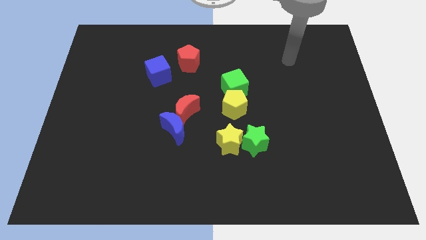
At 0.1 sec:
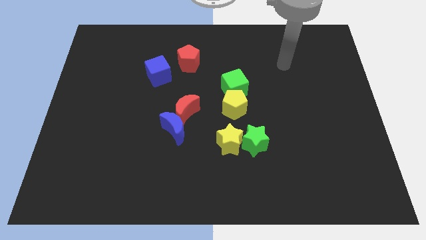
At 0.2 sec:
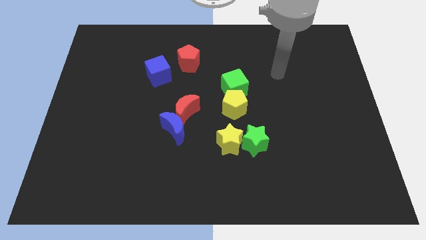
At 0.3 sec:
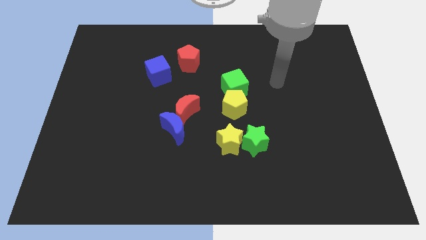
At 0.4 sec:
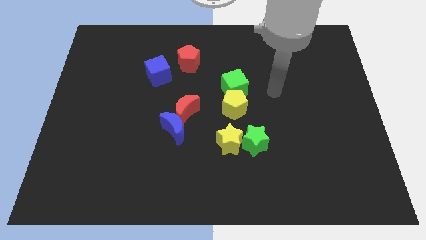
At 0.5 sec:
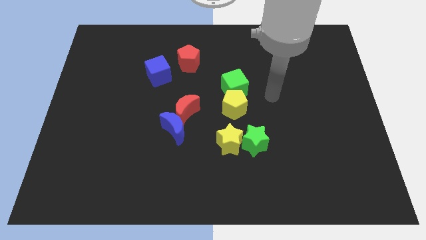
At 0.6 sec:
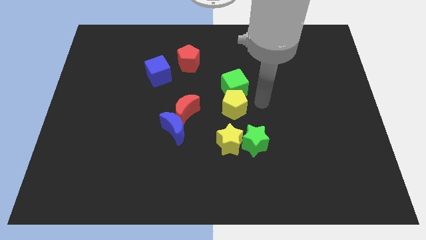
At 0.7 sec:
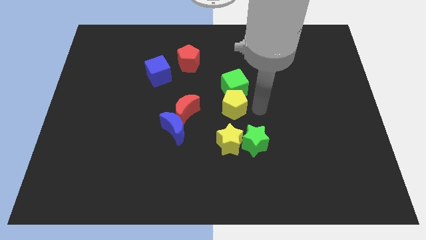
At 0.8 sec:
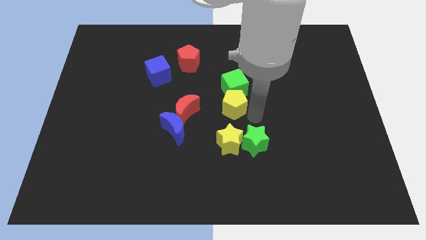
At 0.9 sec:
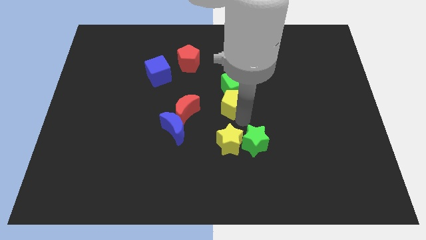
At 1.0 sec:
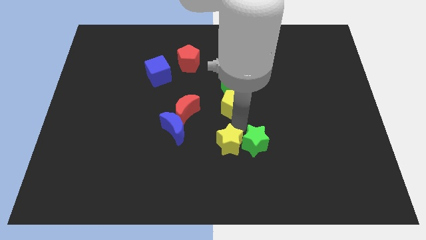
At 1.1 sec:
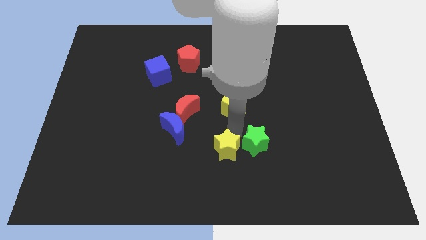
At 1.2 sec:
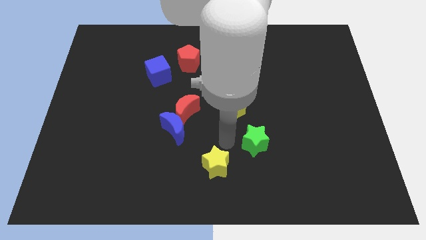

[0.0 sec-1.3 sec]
separate the green star from the yellow star

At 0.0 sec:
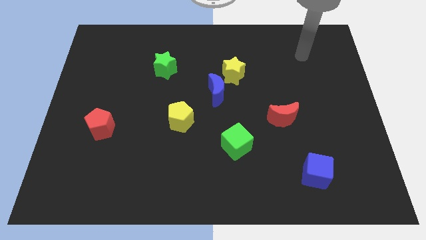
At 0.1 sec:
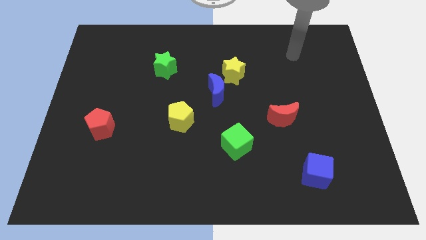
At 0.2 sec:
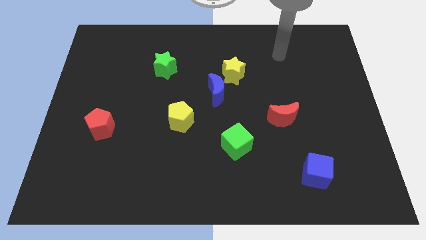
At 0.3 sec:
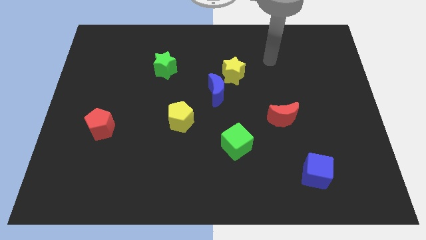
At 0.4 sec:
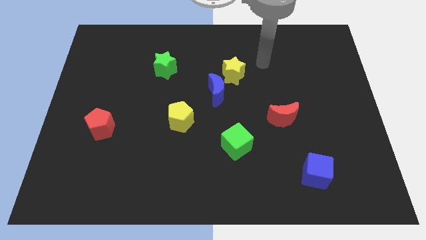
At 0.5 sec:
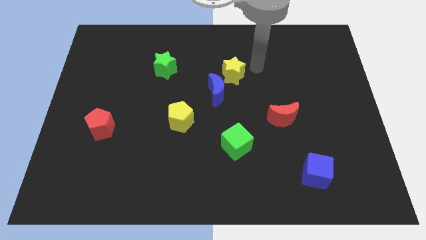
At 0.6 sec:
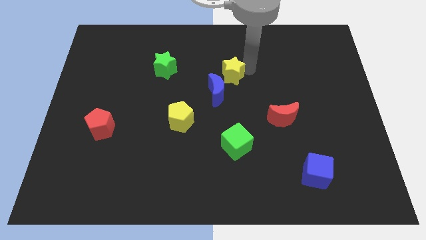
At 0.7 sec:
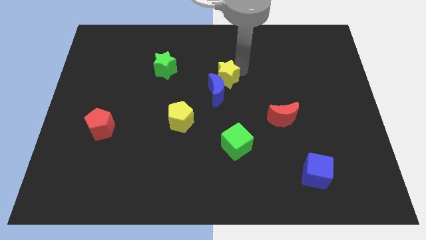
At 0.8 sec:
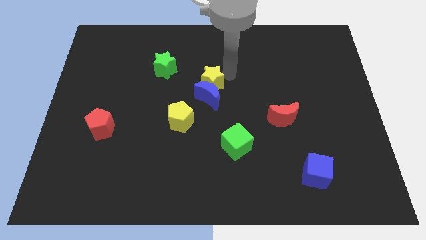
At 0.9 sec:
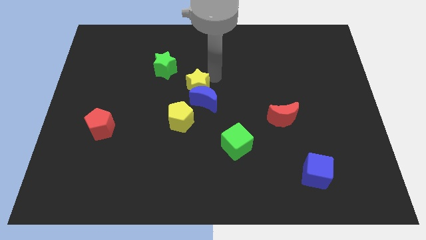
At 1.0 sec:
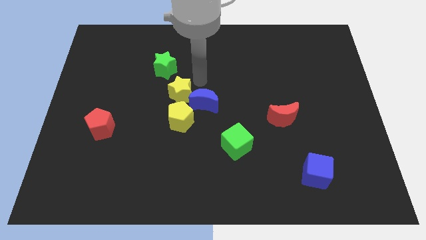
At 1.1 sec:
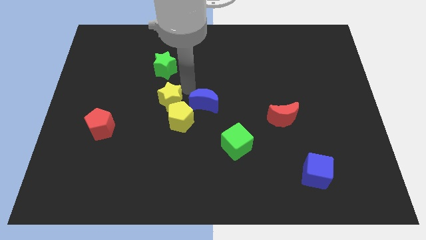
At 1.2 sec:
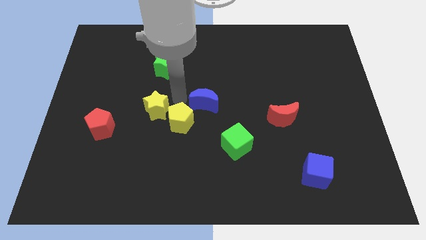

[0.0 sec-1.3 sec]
pull the blue moon apart from the yellow star

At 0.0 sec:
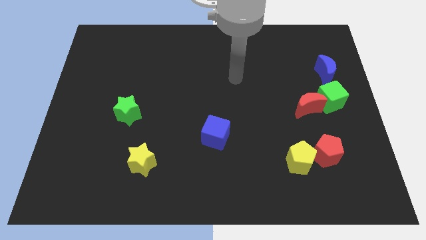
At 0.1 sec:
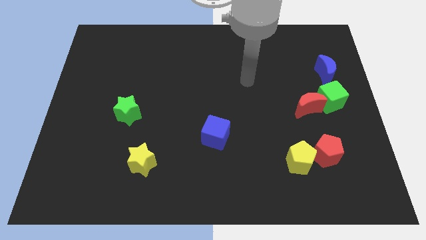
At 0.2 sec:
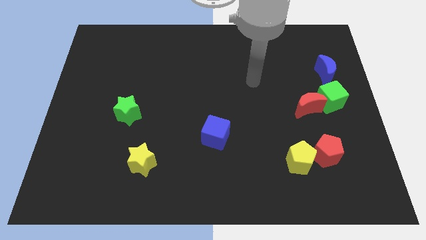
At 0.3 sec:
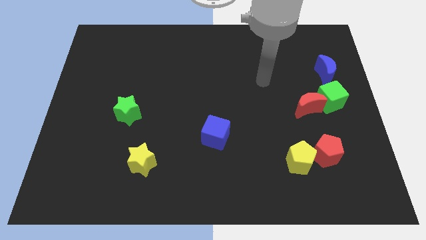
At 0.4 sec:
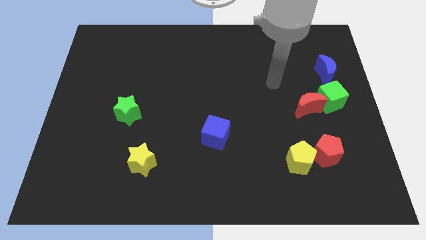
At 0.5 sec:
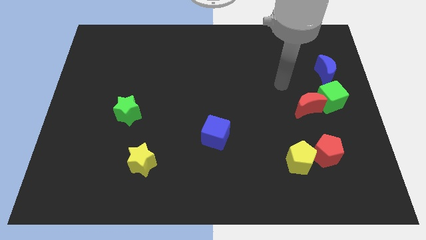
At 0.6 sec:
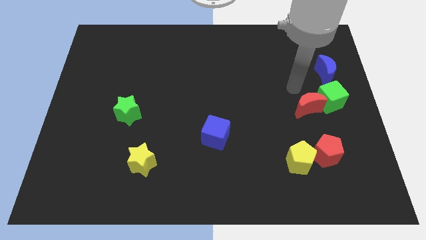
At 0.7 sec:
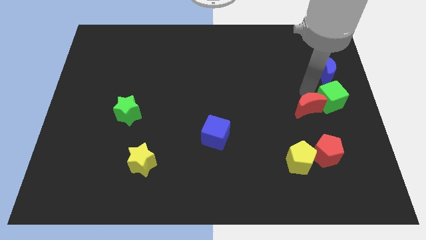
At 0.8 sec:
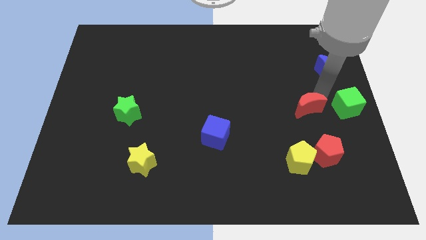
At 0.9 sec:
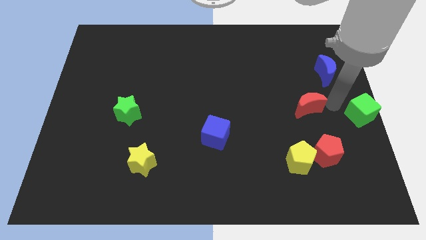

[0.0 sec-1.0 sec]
move the red moon away from the green cube

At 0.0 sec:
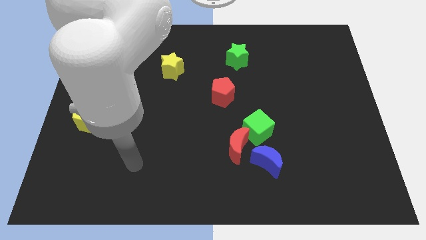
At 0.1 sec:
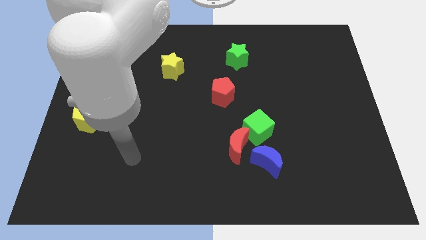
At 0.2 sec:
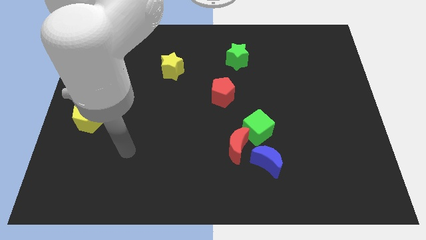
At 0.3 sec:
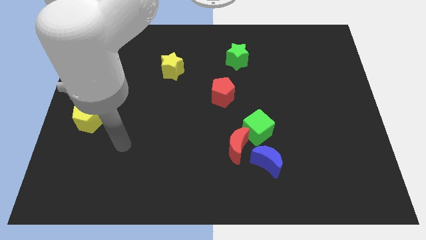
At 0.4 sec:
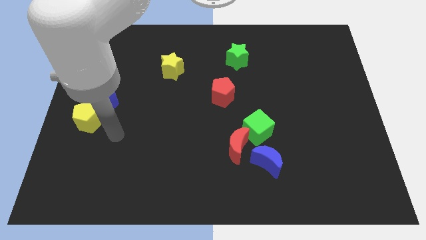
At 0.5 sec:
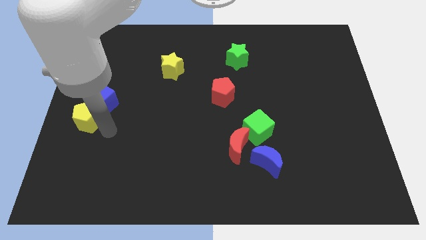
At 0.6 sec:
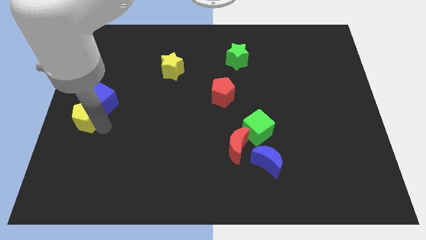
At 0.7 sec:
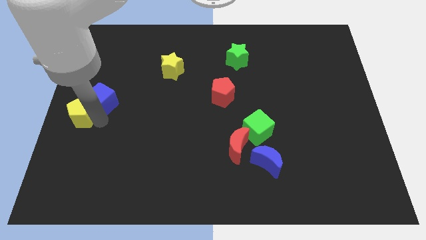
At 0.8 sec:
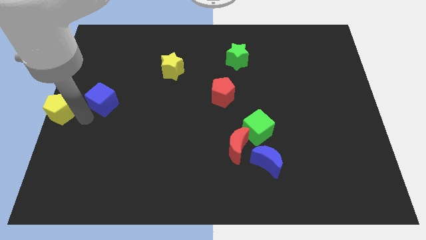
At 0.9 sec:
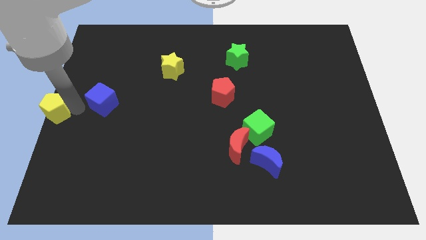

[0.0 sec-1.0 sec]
pull the blue cube apart from the yellow pentagon

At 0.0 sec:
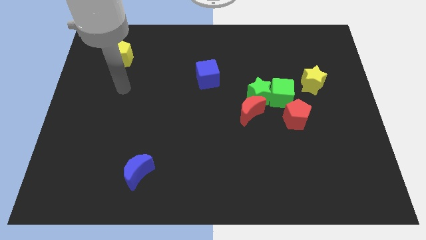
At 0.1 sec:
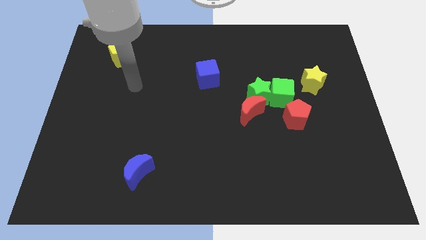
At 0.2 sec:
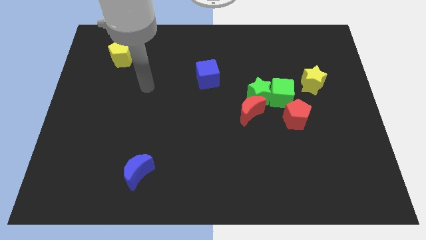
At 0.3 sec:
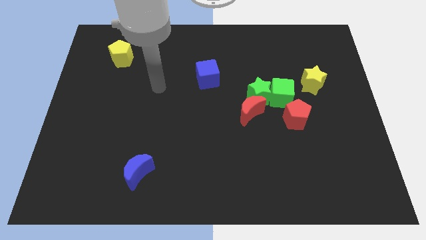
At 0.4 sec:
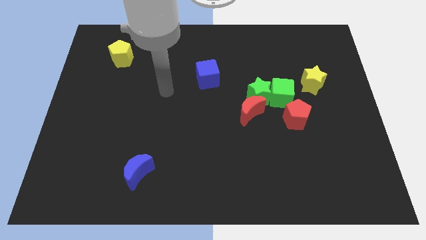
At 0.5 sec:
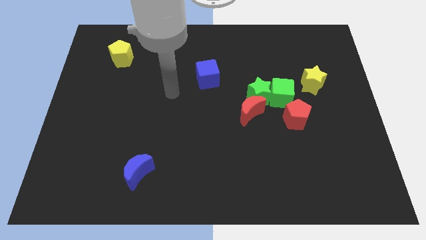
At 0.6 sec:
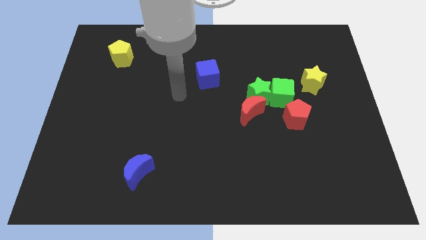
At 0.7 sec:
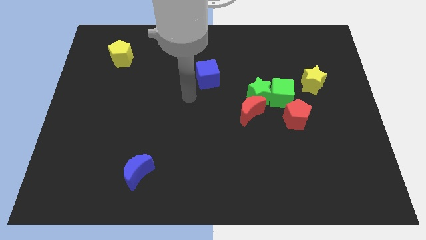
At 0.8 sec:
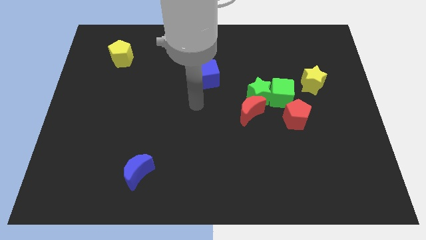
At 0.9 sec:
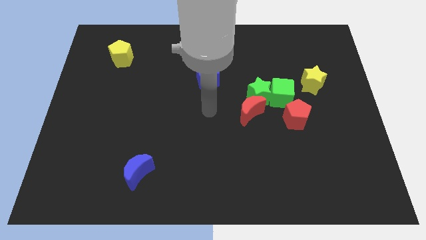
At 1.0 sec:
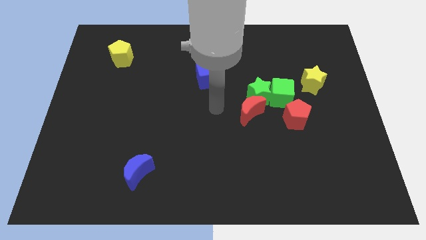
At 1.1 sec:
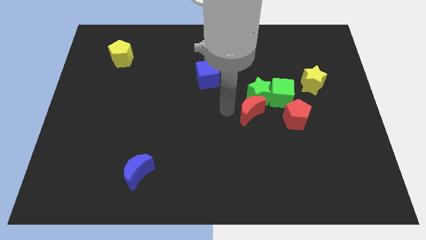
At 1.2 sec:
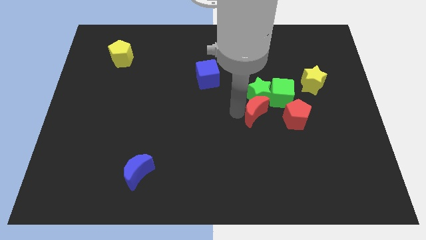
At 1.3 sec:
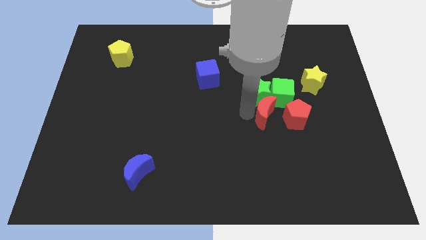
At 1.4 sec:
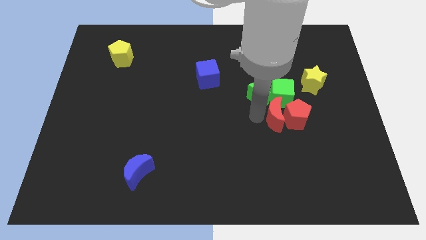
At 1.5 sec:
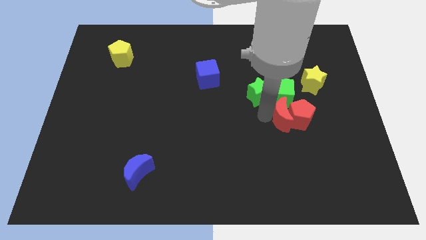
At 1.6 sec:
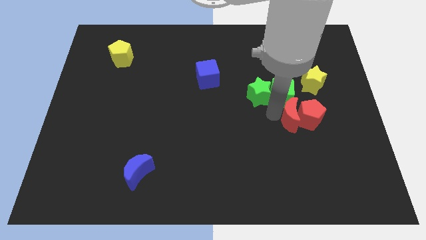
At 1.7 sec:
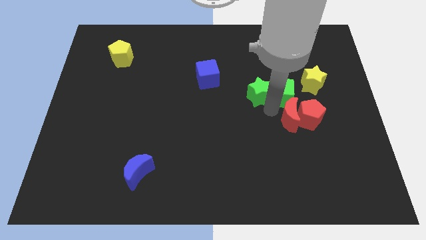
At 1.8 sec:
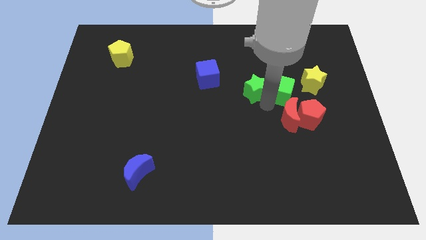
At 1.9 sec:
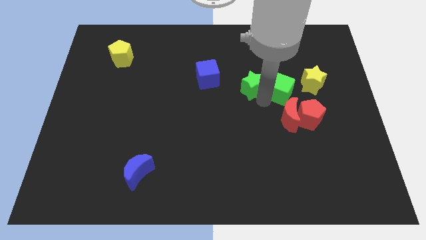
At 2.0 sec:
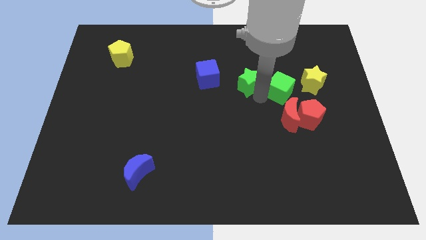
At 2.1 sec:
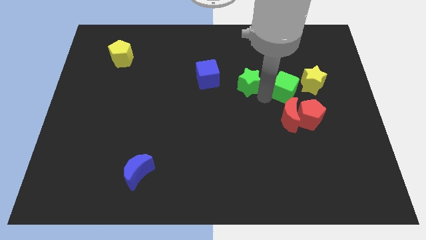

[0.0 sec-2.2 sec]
move the green star away from the green cube and red moon

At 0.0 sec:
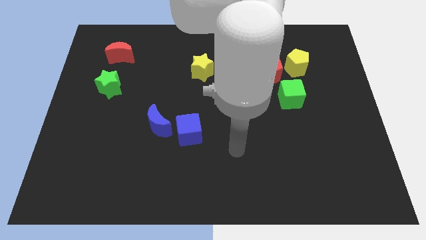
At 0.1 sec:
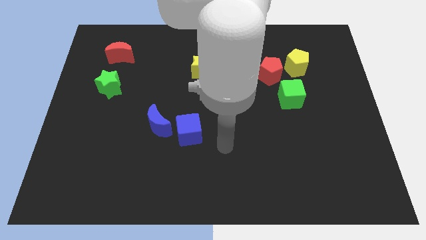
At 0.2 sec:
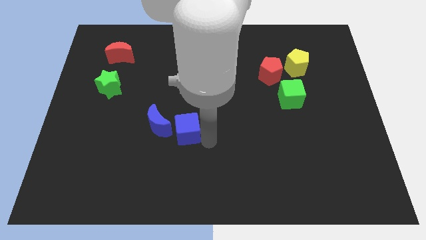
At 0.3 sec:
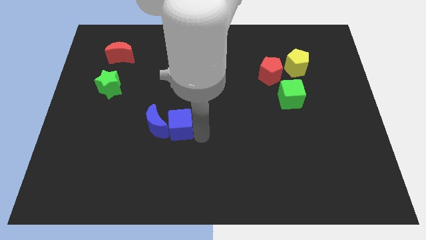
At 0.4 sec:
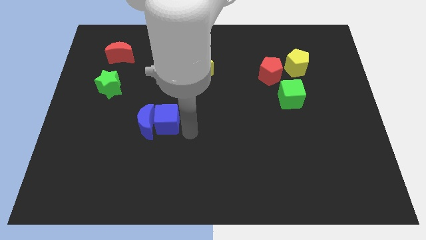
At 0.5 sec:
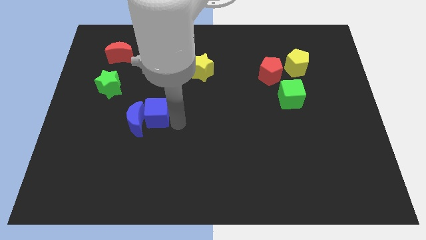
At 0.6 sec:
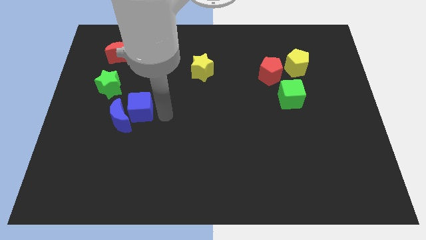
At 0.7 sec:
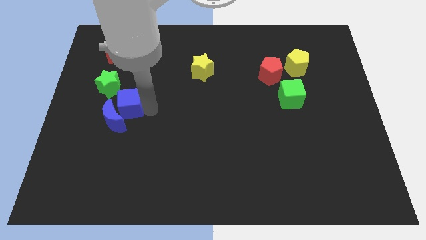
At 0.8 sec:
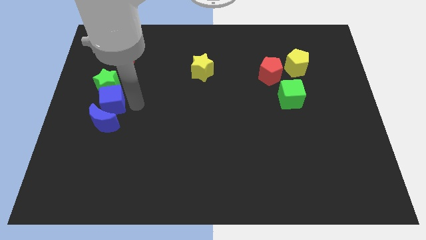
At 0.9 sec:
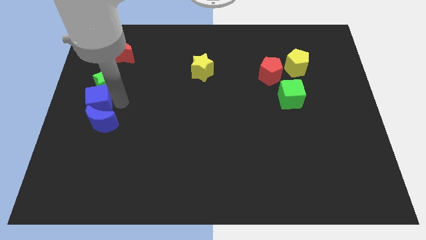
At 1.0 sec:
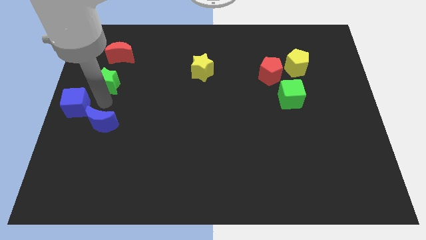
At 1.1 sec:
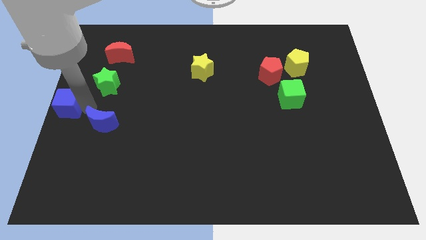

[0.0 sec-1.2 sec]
move the blue moon away from the blue cube

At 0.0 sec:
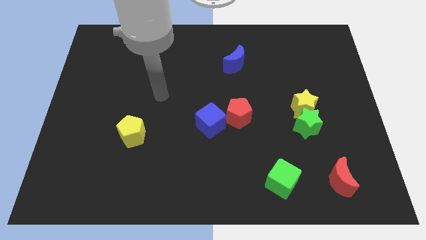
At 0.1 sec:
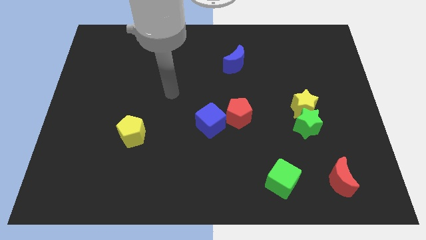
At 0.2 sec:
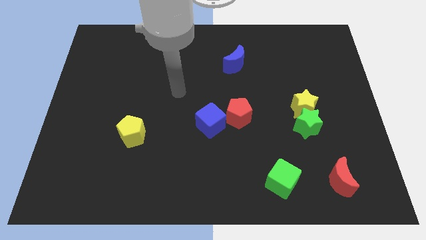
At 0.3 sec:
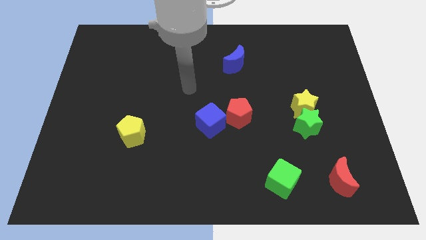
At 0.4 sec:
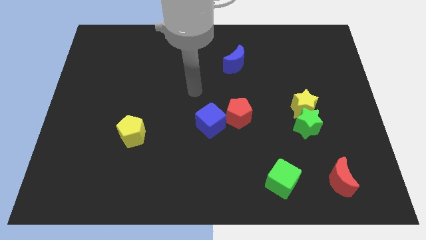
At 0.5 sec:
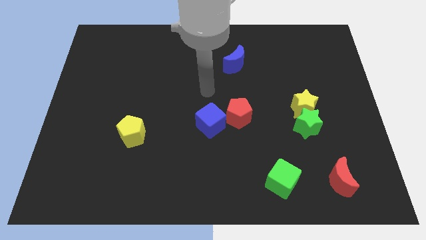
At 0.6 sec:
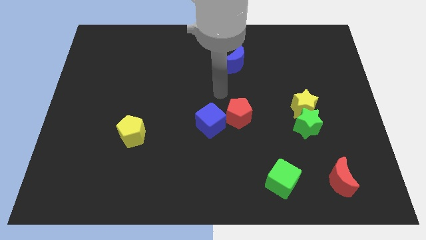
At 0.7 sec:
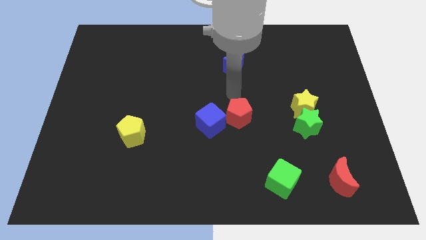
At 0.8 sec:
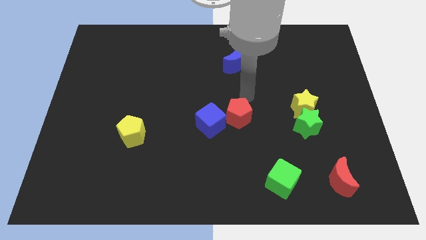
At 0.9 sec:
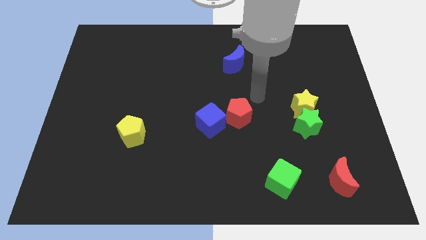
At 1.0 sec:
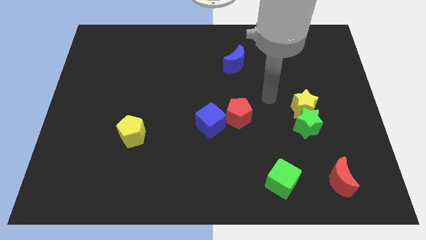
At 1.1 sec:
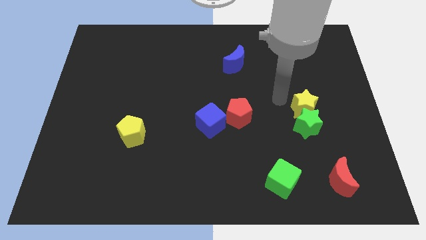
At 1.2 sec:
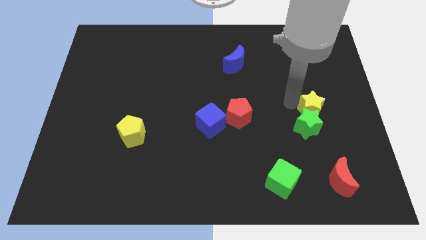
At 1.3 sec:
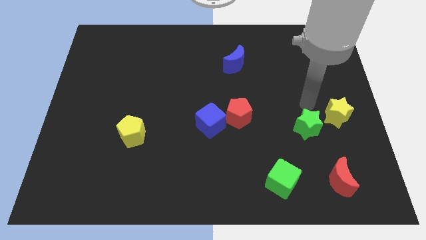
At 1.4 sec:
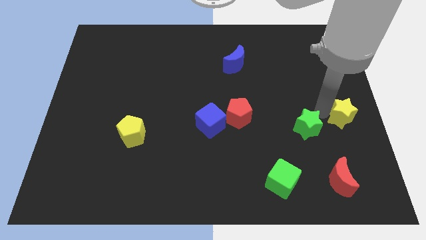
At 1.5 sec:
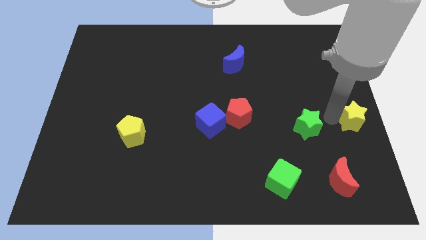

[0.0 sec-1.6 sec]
move the green star away from the yellow star
